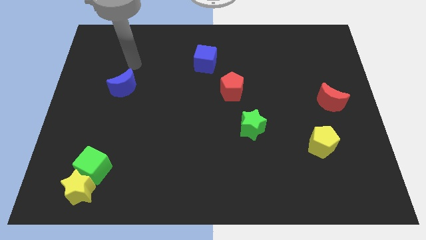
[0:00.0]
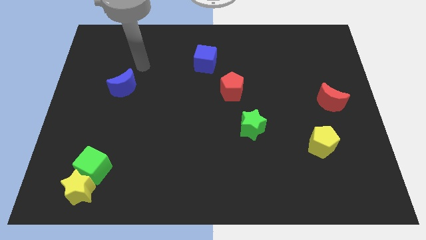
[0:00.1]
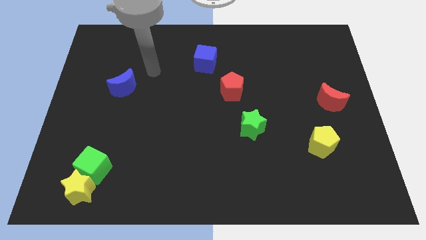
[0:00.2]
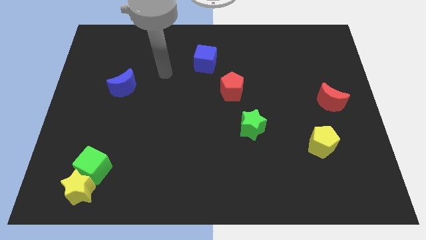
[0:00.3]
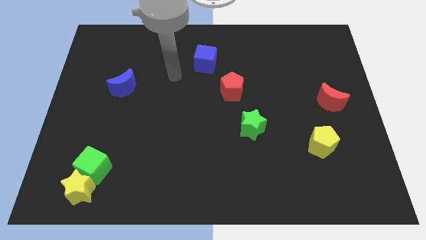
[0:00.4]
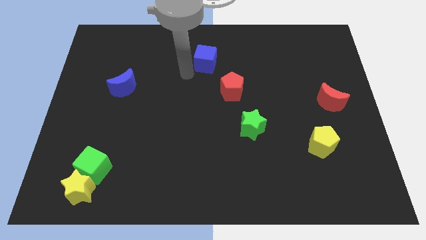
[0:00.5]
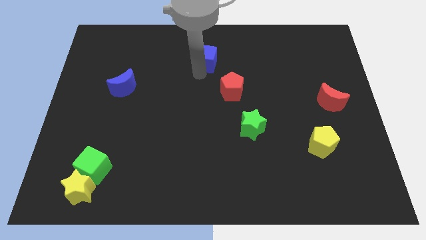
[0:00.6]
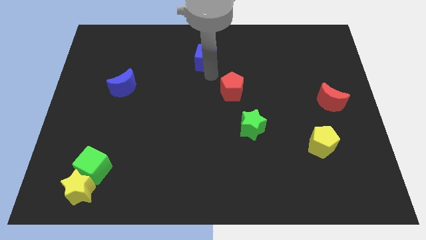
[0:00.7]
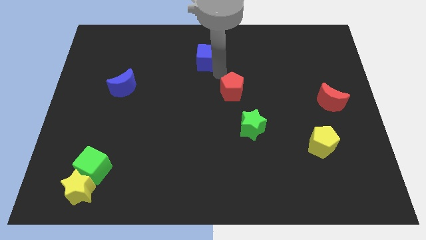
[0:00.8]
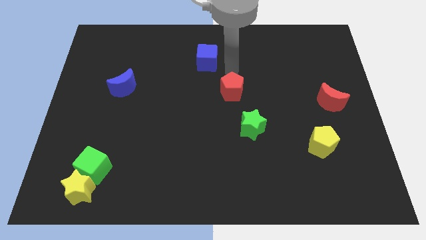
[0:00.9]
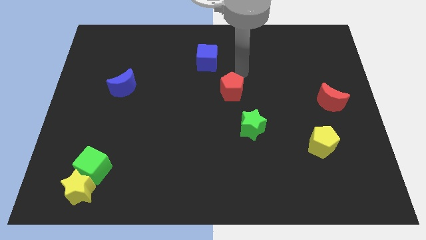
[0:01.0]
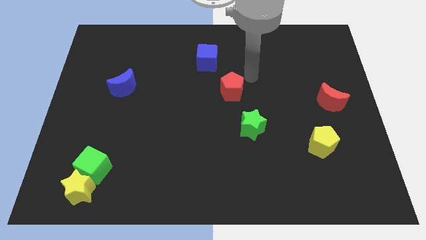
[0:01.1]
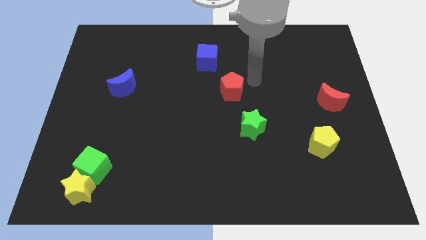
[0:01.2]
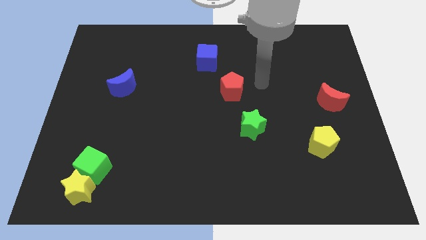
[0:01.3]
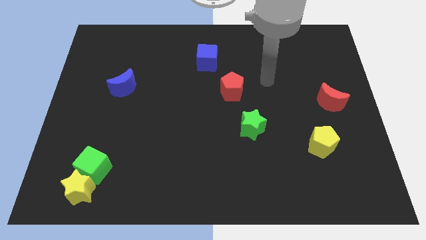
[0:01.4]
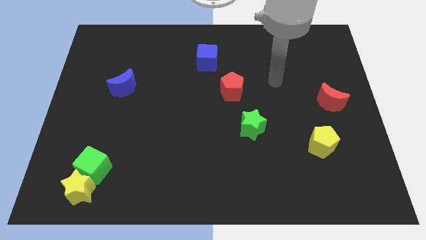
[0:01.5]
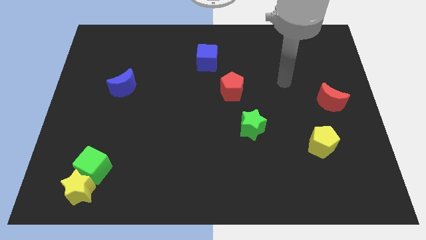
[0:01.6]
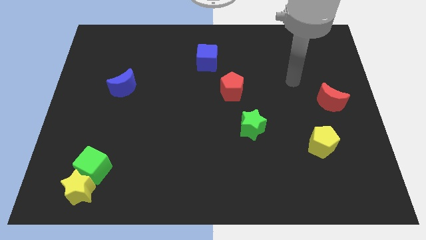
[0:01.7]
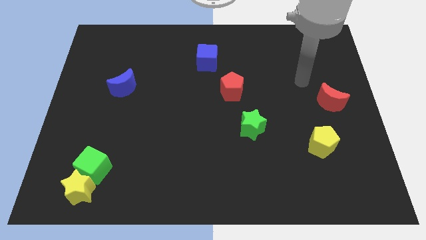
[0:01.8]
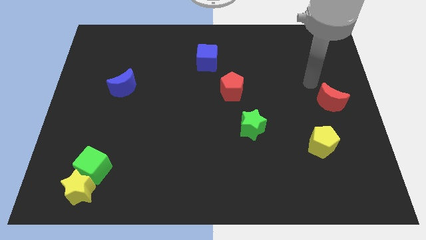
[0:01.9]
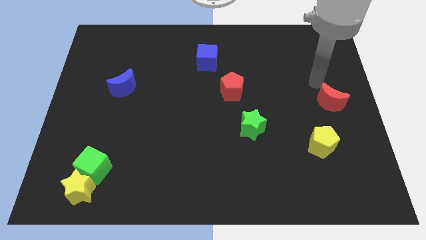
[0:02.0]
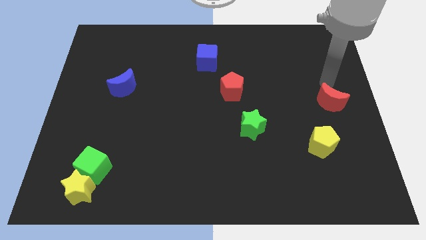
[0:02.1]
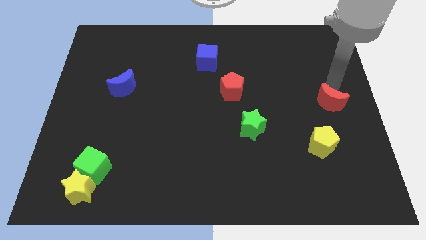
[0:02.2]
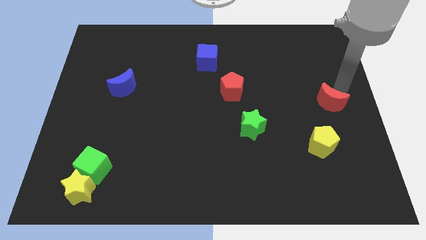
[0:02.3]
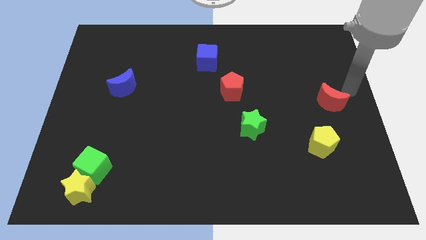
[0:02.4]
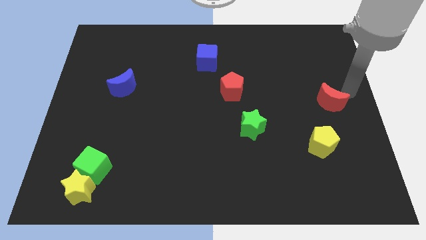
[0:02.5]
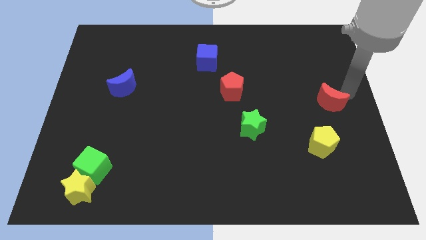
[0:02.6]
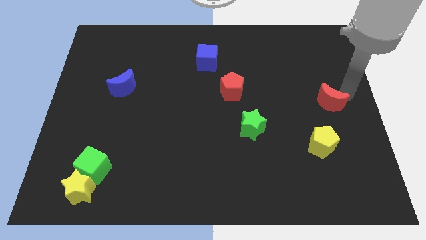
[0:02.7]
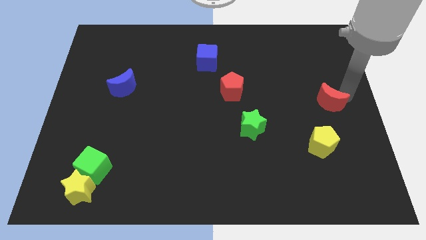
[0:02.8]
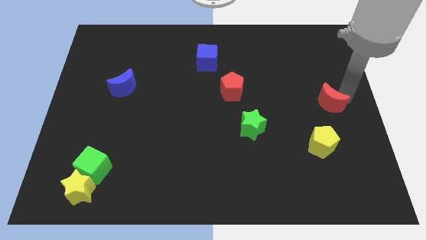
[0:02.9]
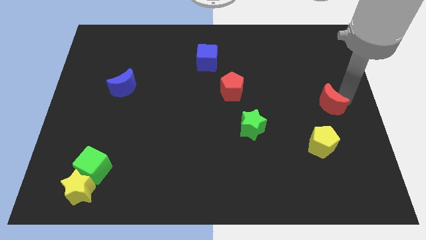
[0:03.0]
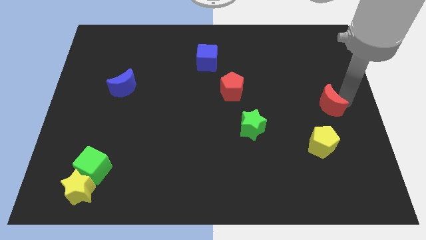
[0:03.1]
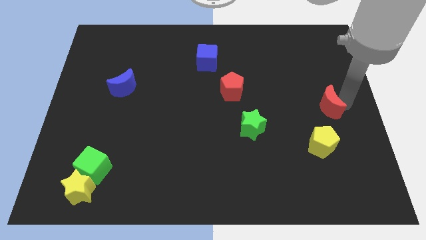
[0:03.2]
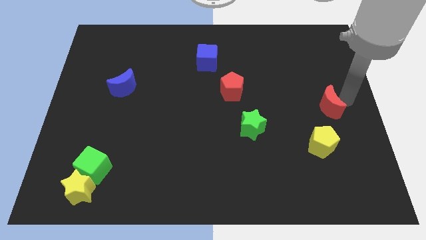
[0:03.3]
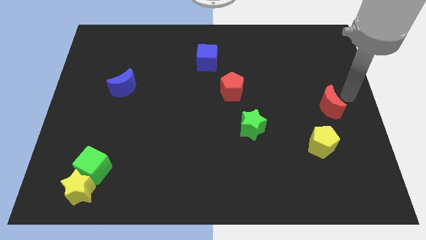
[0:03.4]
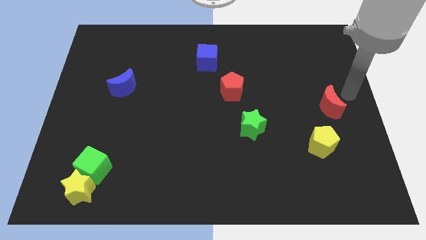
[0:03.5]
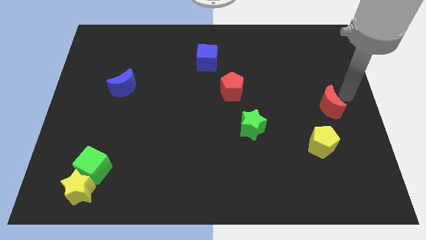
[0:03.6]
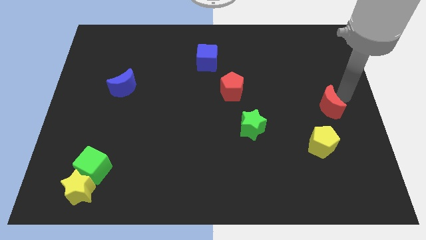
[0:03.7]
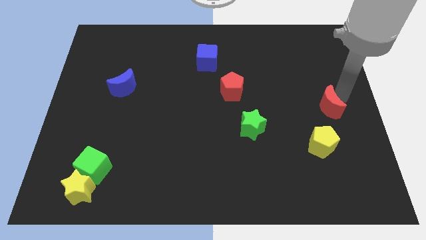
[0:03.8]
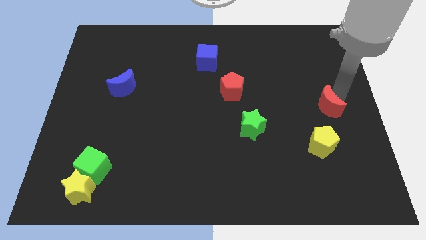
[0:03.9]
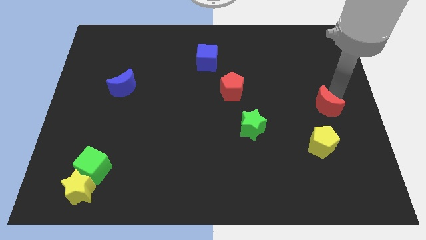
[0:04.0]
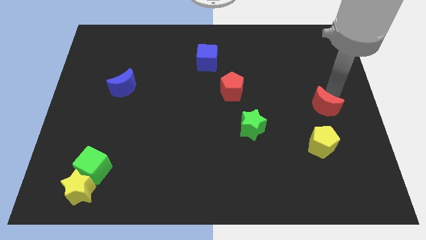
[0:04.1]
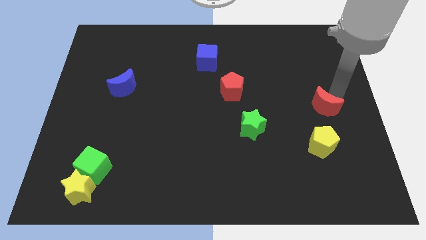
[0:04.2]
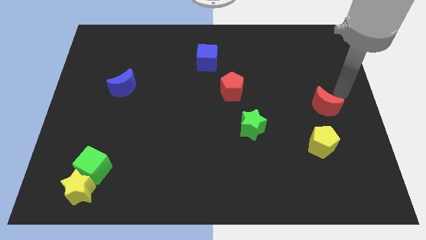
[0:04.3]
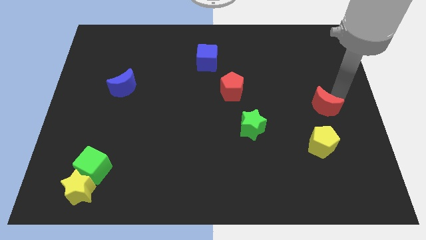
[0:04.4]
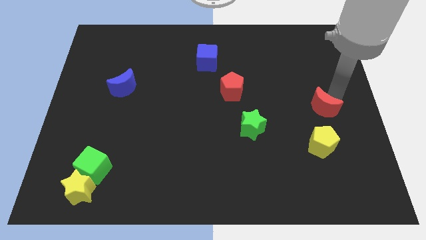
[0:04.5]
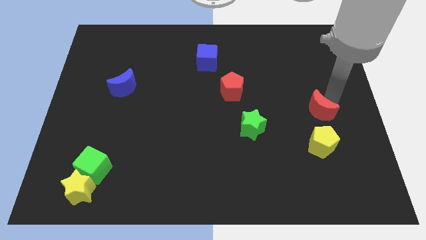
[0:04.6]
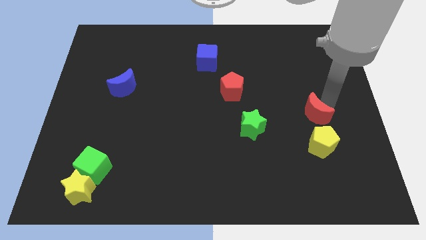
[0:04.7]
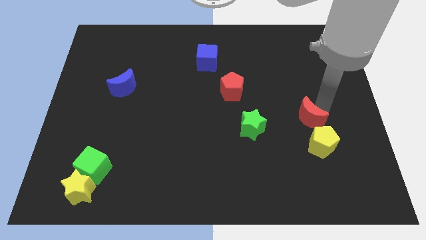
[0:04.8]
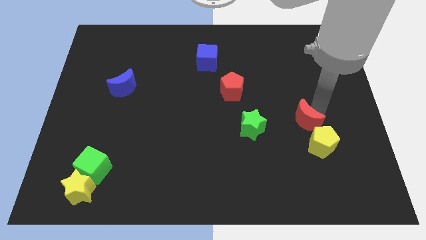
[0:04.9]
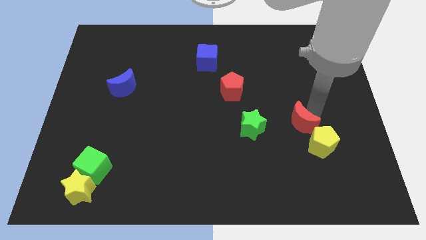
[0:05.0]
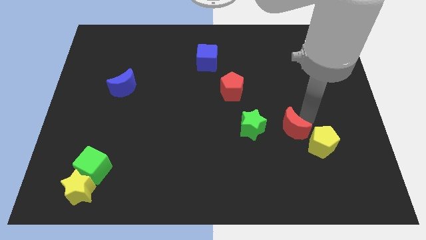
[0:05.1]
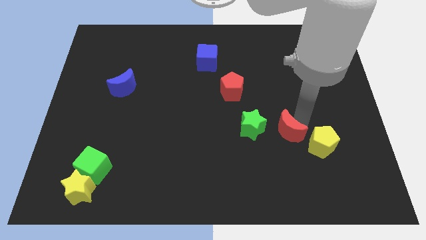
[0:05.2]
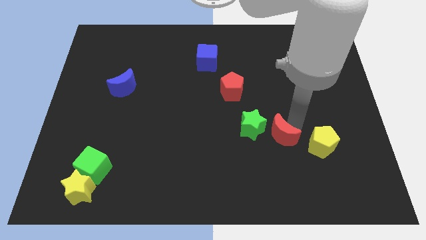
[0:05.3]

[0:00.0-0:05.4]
push the red moon to the bottom right of the green star

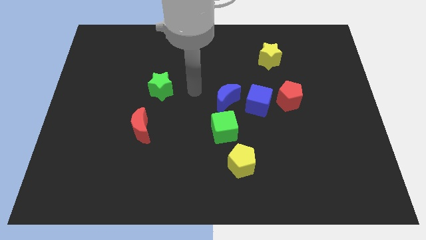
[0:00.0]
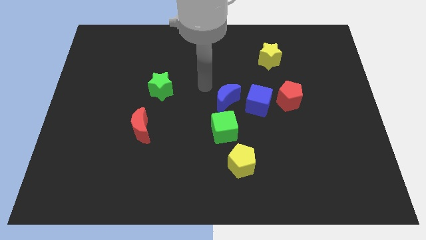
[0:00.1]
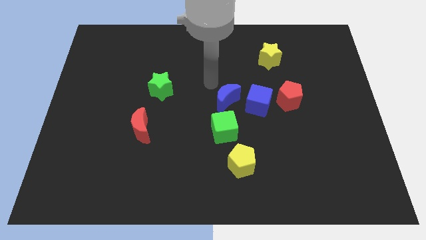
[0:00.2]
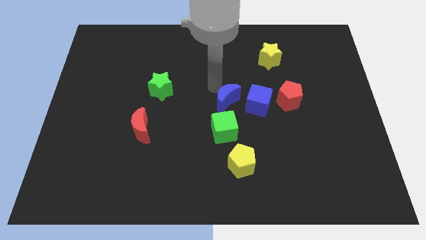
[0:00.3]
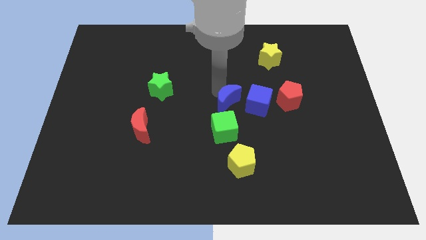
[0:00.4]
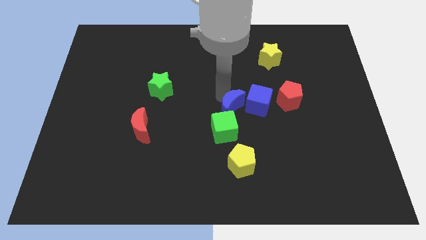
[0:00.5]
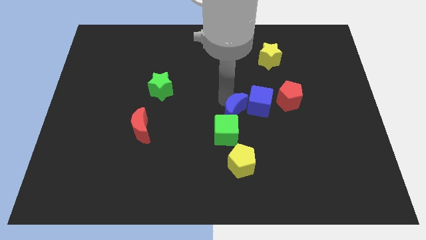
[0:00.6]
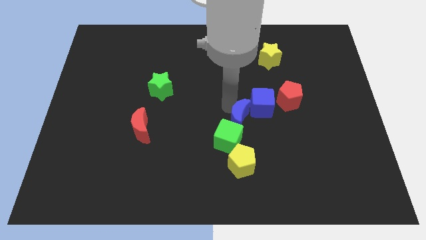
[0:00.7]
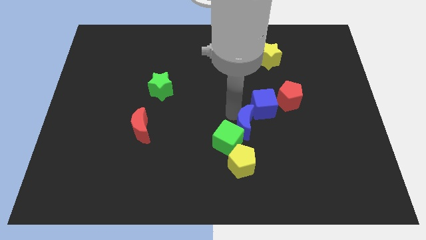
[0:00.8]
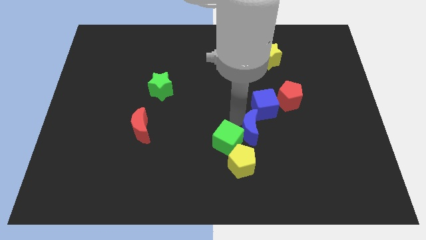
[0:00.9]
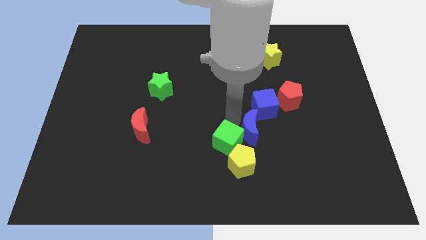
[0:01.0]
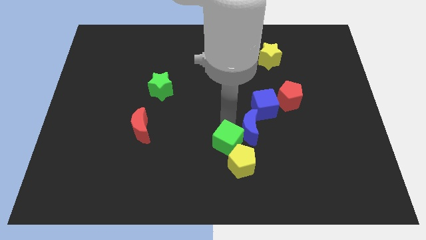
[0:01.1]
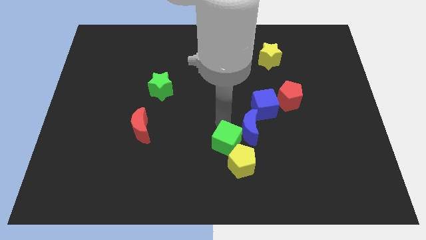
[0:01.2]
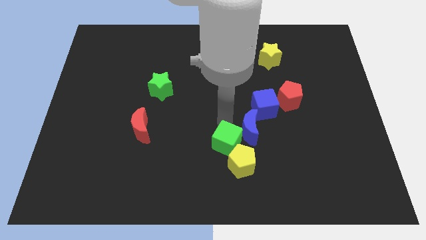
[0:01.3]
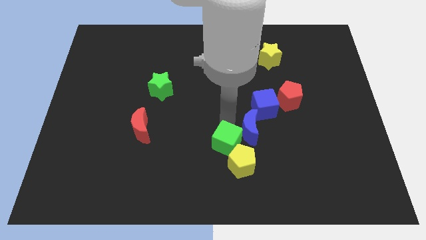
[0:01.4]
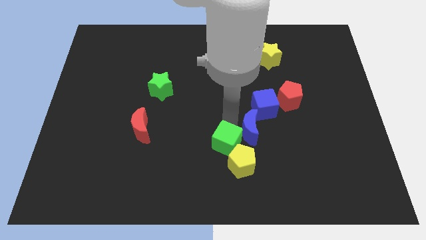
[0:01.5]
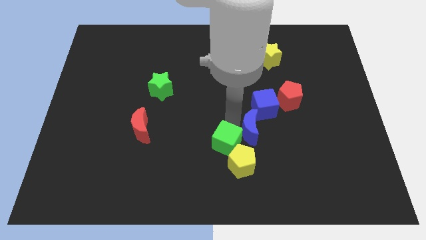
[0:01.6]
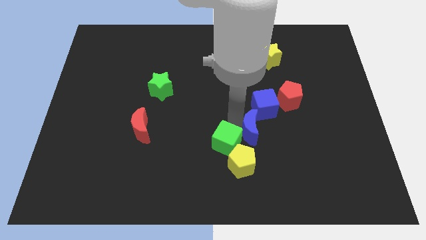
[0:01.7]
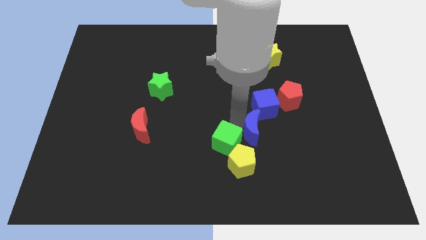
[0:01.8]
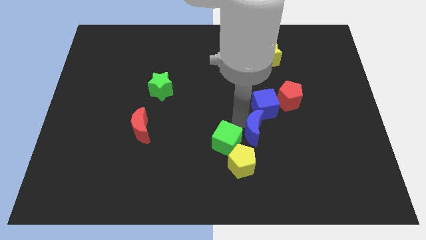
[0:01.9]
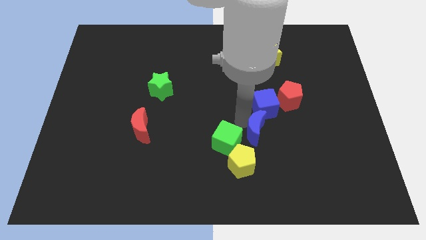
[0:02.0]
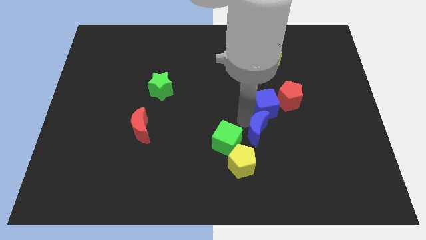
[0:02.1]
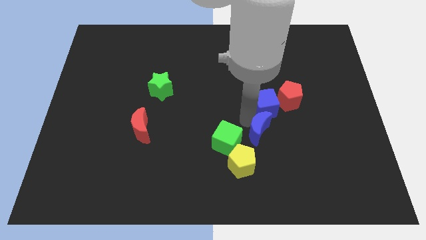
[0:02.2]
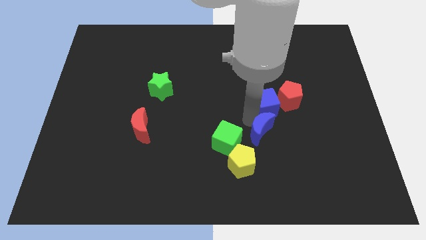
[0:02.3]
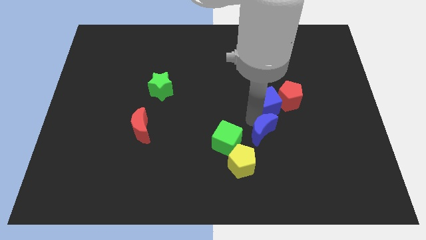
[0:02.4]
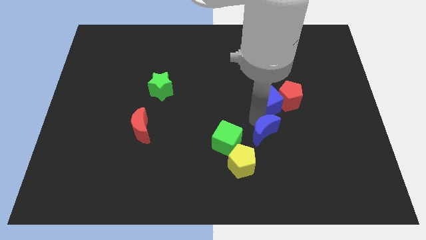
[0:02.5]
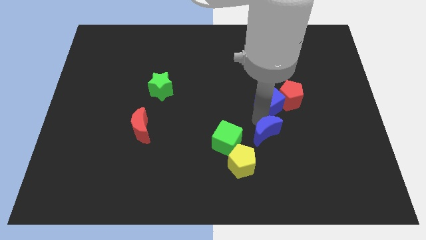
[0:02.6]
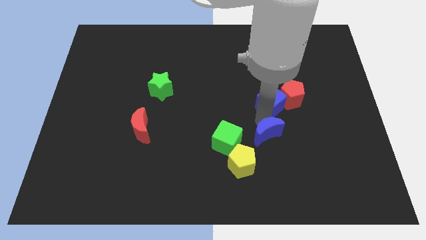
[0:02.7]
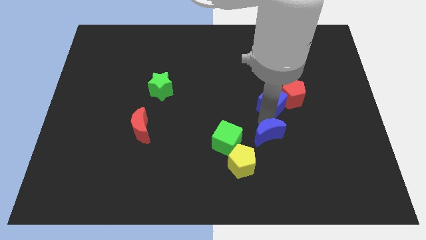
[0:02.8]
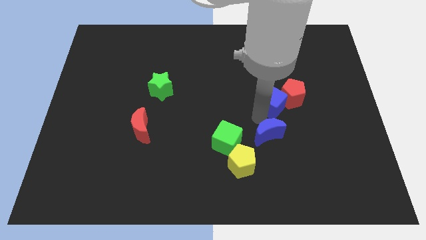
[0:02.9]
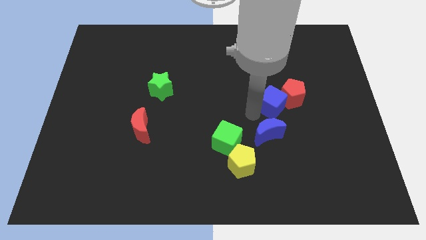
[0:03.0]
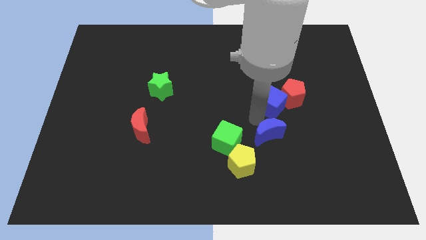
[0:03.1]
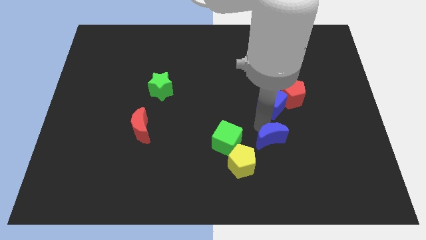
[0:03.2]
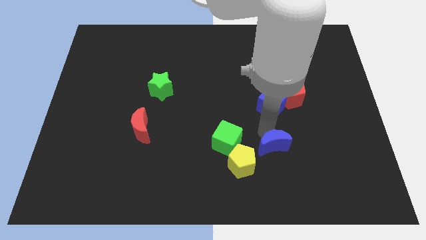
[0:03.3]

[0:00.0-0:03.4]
slide the blue moon just right of the yellow pentagon
